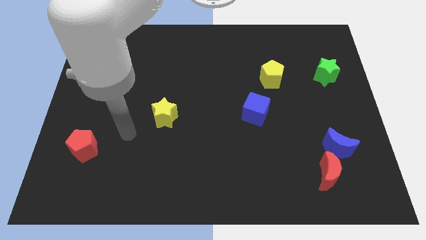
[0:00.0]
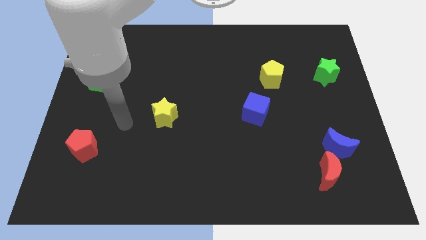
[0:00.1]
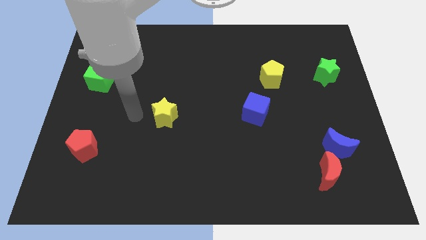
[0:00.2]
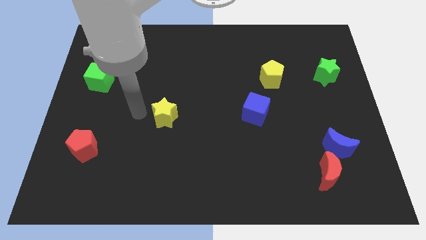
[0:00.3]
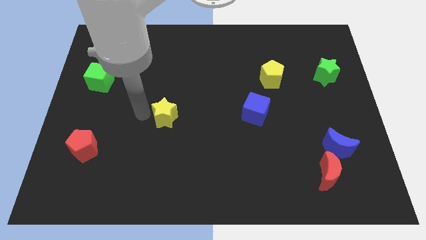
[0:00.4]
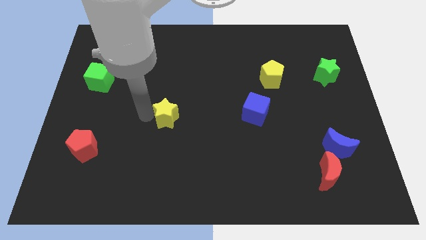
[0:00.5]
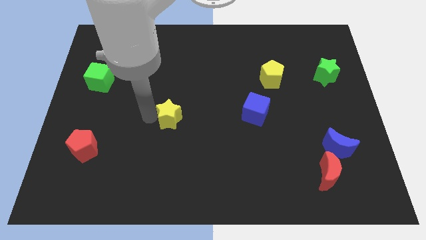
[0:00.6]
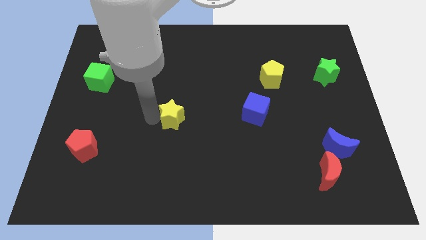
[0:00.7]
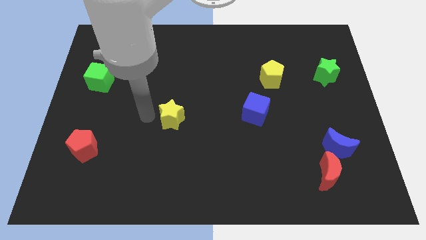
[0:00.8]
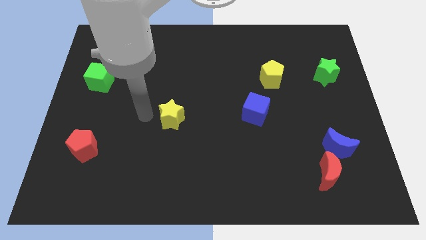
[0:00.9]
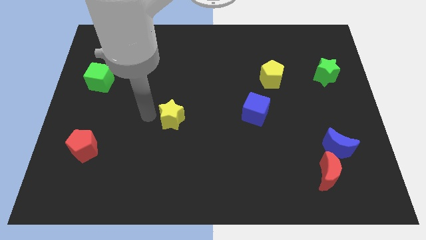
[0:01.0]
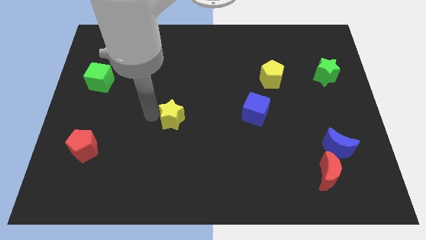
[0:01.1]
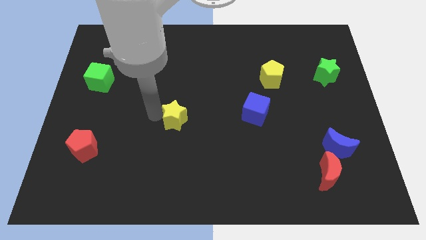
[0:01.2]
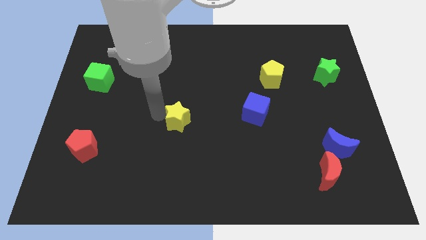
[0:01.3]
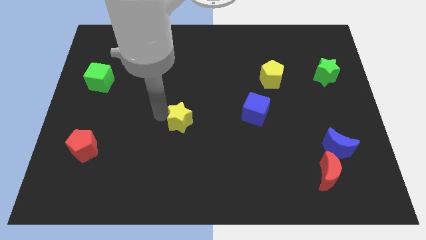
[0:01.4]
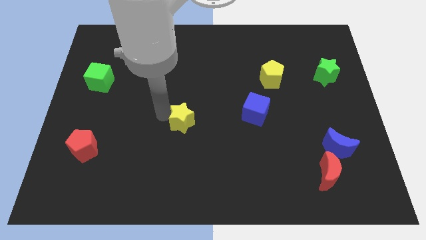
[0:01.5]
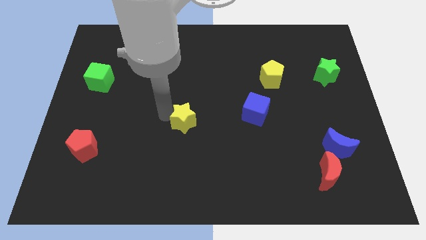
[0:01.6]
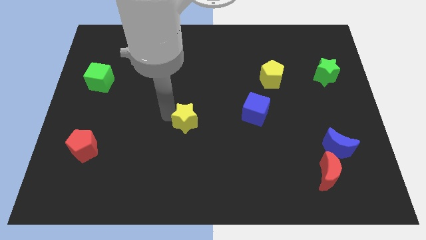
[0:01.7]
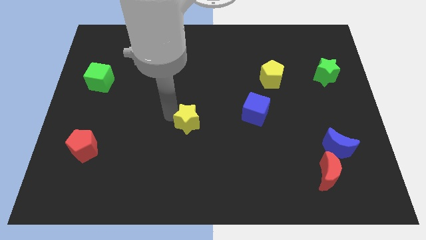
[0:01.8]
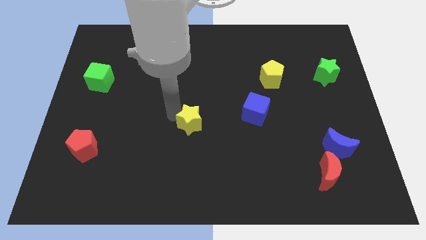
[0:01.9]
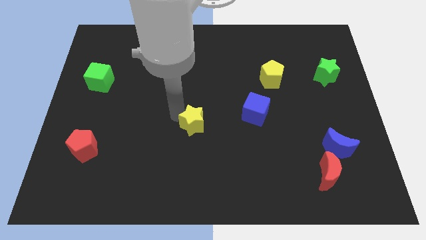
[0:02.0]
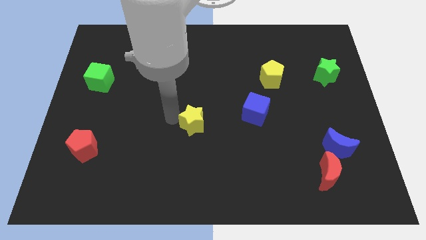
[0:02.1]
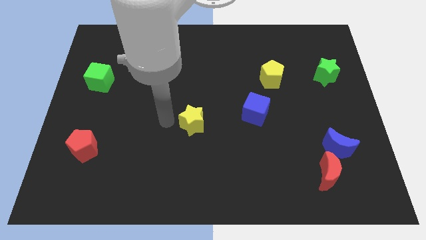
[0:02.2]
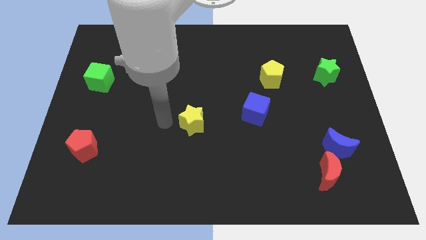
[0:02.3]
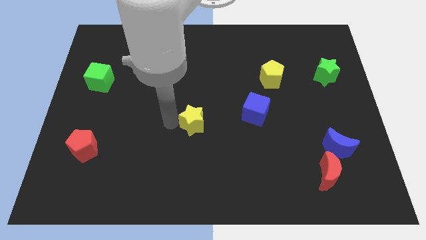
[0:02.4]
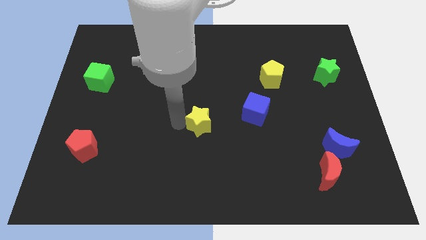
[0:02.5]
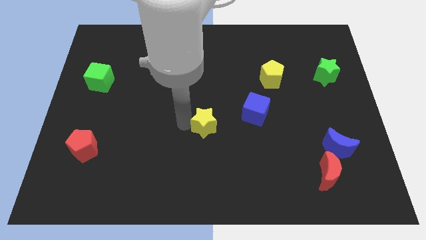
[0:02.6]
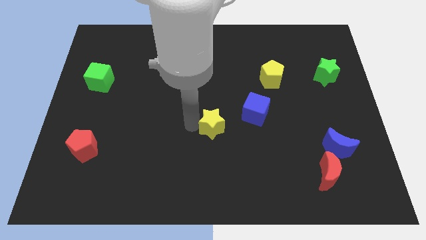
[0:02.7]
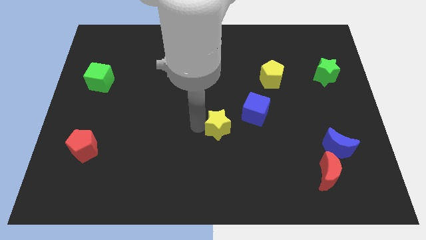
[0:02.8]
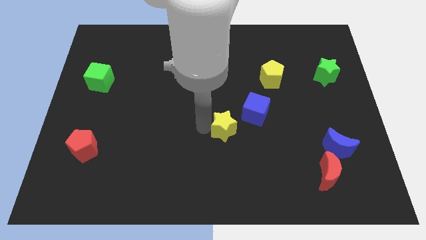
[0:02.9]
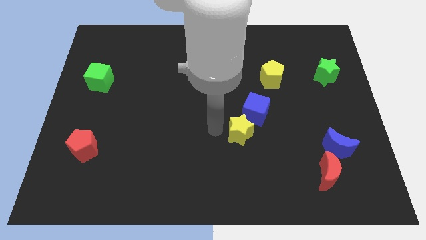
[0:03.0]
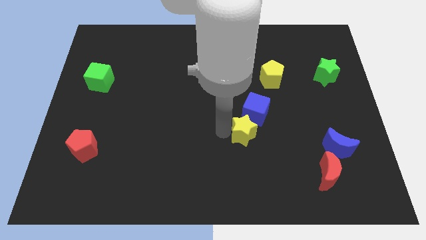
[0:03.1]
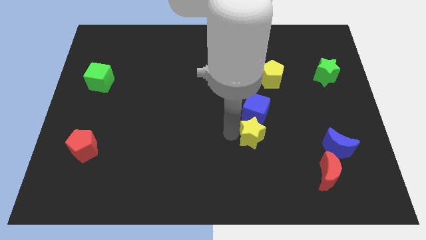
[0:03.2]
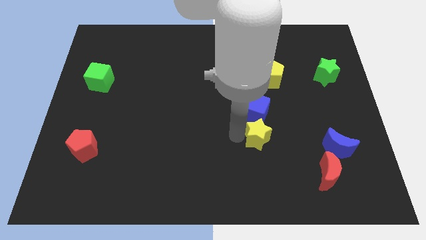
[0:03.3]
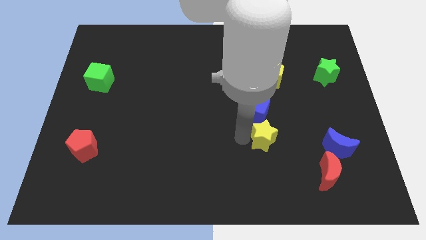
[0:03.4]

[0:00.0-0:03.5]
slide the yellow star to the right

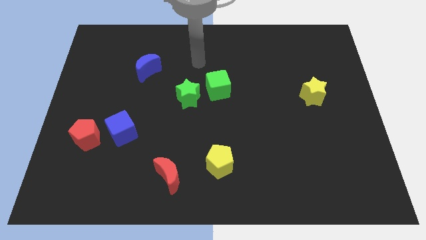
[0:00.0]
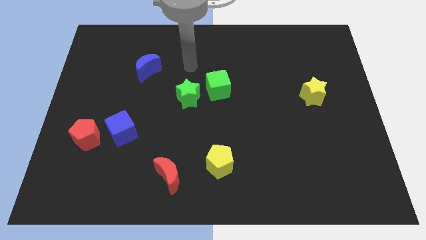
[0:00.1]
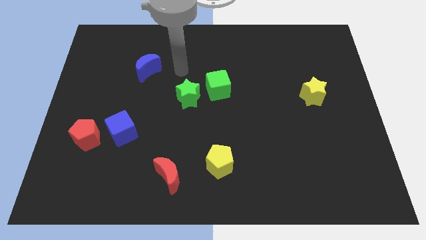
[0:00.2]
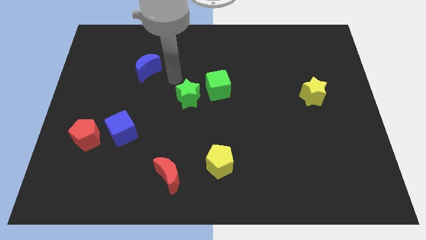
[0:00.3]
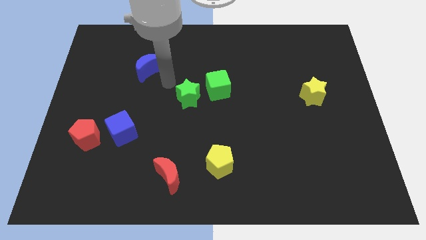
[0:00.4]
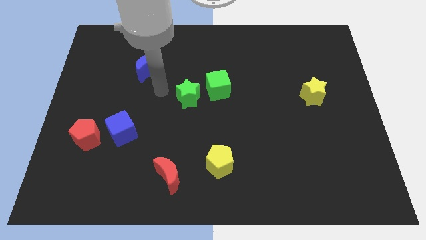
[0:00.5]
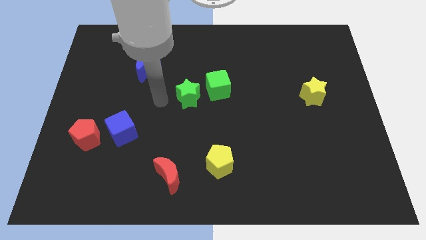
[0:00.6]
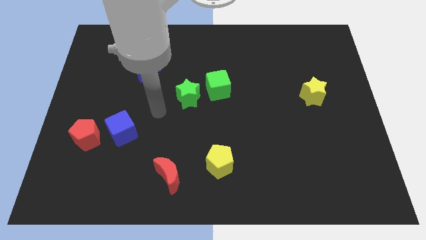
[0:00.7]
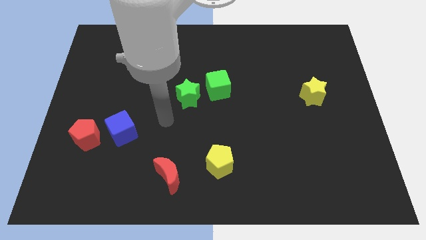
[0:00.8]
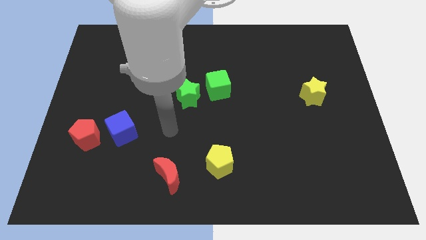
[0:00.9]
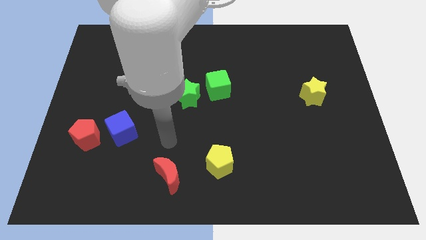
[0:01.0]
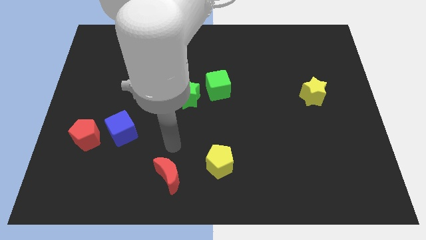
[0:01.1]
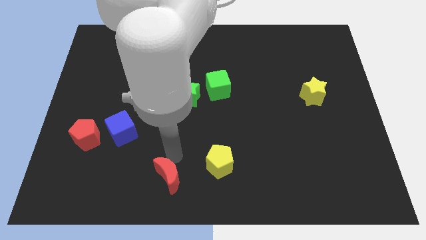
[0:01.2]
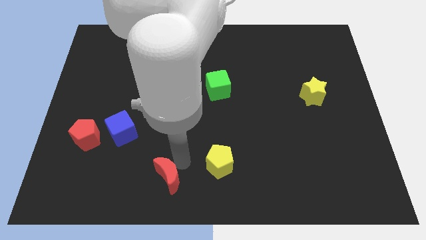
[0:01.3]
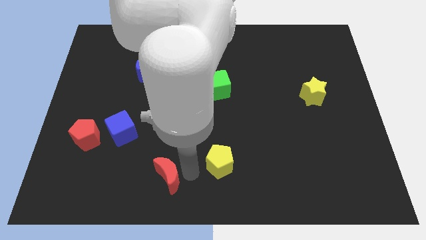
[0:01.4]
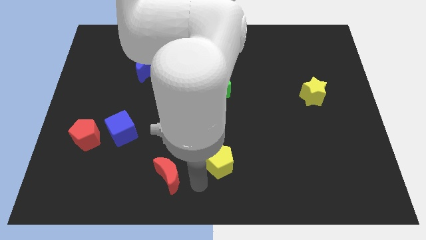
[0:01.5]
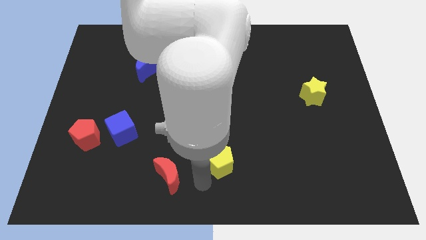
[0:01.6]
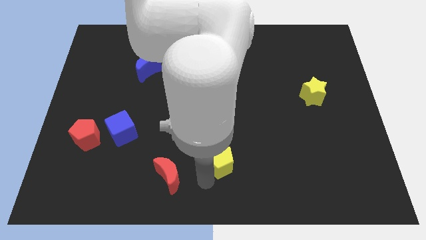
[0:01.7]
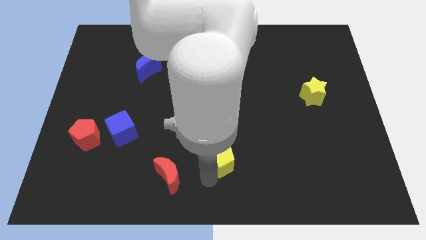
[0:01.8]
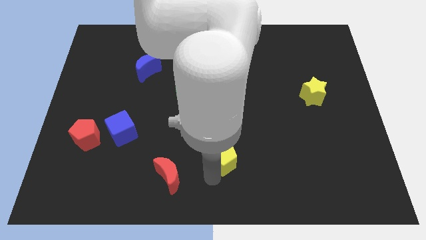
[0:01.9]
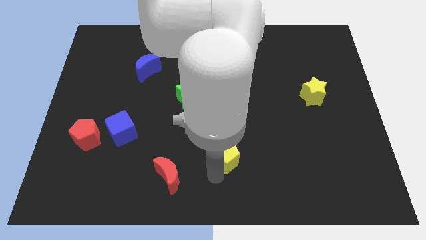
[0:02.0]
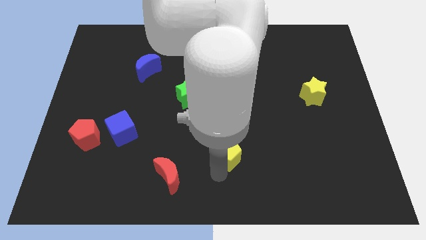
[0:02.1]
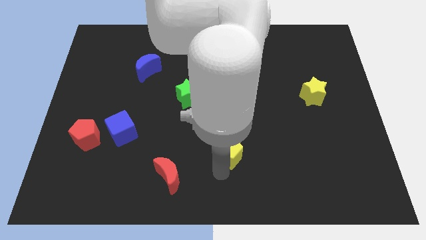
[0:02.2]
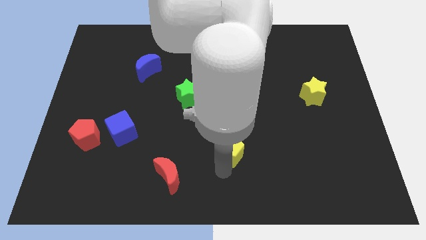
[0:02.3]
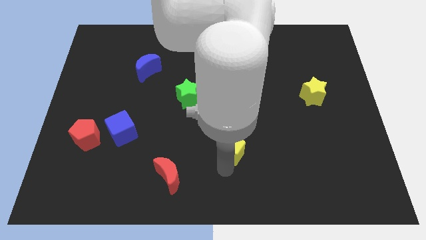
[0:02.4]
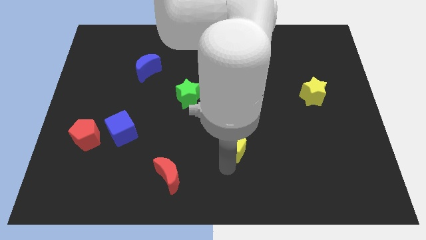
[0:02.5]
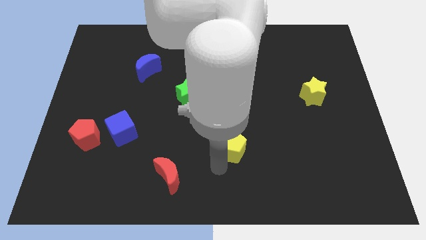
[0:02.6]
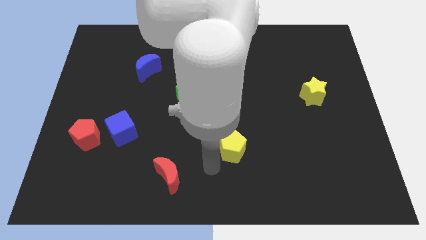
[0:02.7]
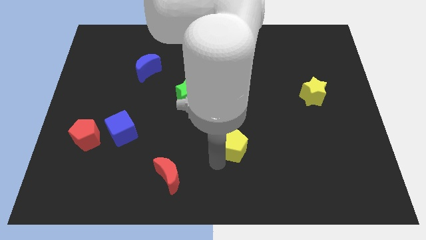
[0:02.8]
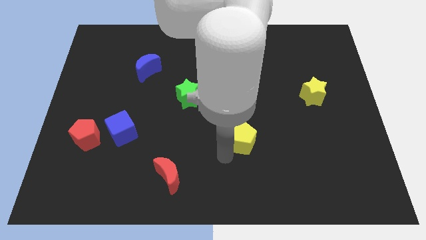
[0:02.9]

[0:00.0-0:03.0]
push the yellow pentagon up and right a bit

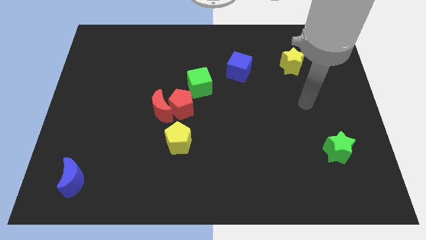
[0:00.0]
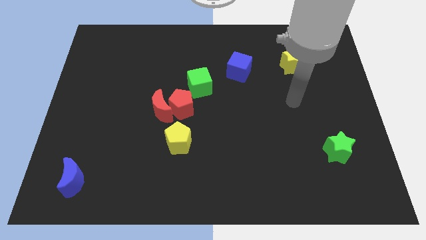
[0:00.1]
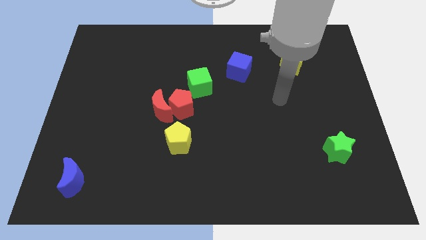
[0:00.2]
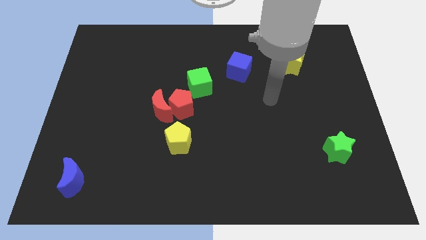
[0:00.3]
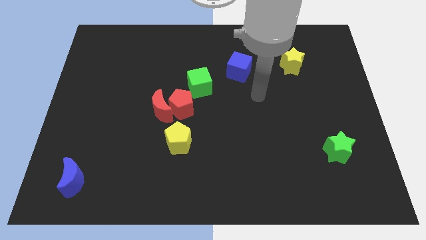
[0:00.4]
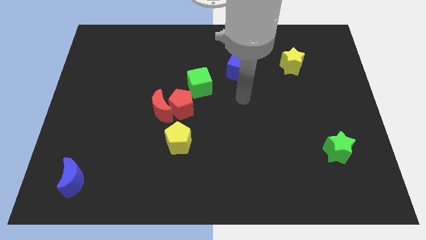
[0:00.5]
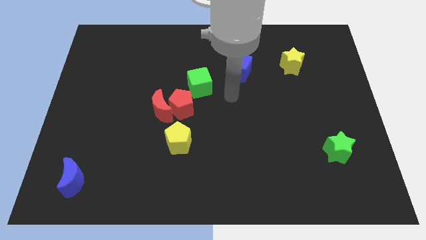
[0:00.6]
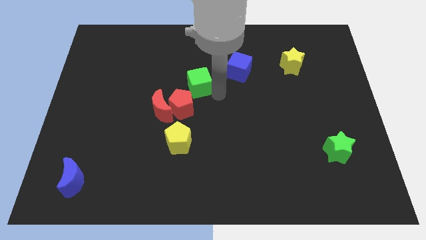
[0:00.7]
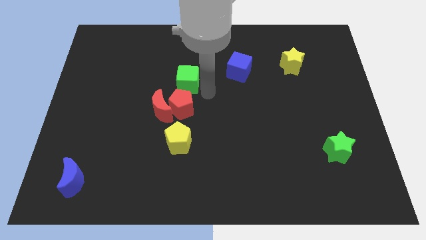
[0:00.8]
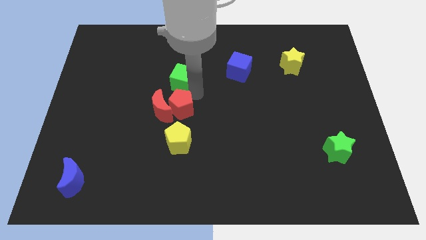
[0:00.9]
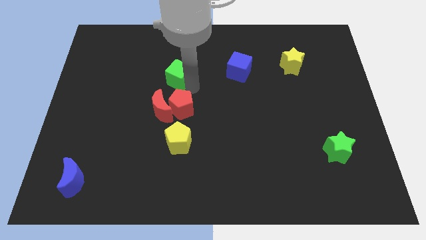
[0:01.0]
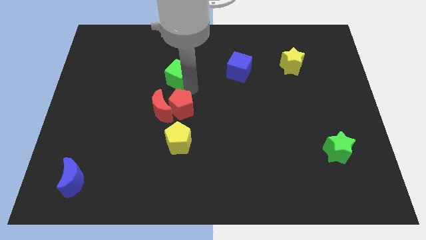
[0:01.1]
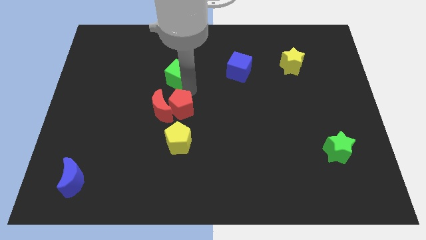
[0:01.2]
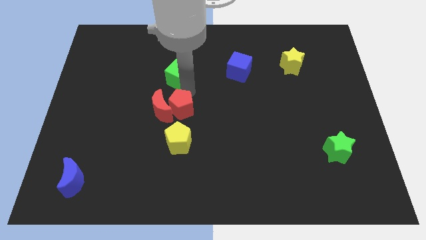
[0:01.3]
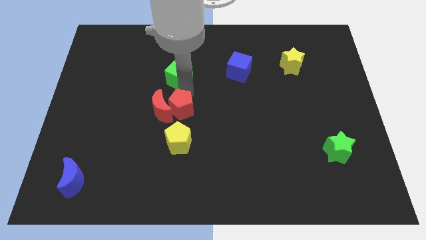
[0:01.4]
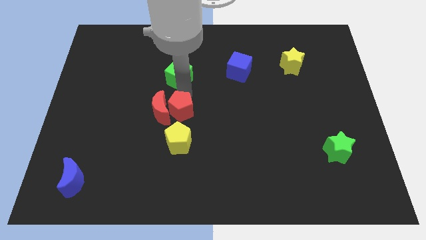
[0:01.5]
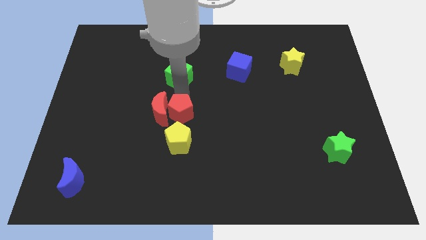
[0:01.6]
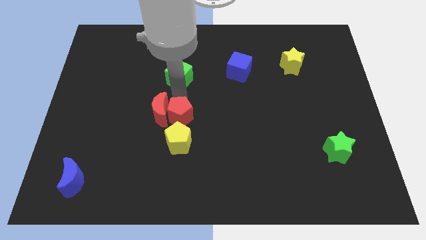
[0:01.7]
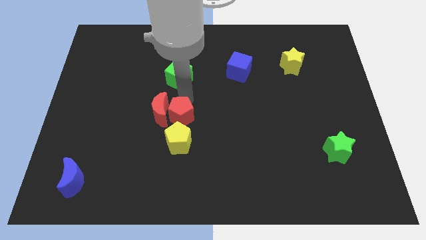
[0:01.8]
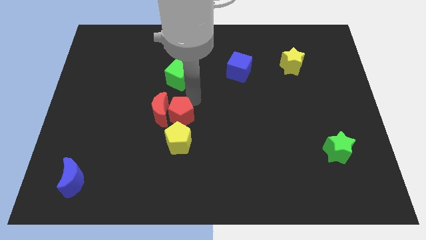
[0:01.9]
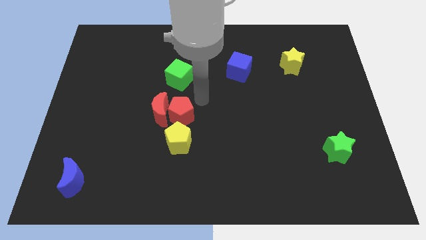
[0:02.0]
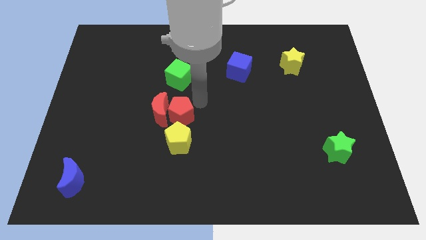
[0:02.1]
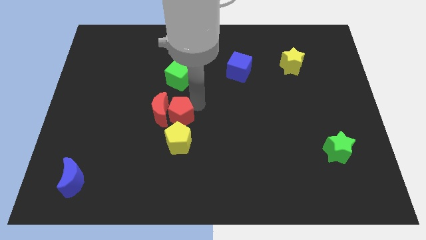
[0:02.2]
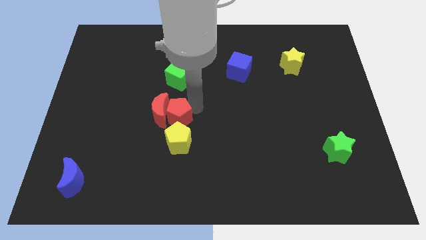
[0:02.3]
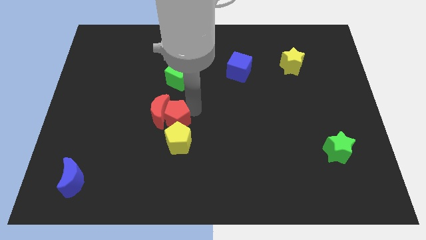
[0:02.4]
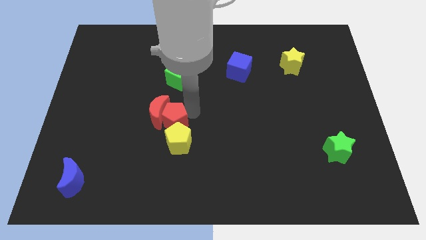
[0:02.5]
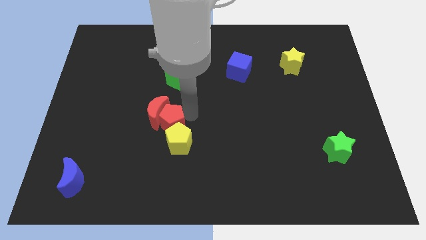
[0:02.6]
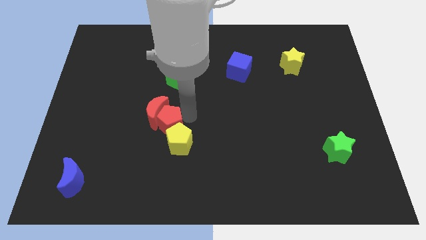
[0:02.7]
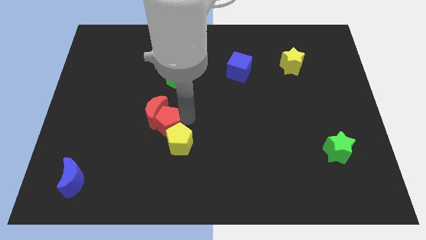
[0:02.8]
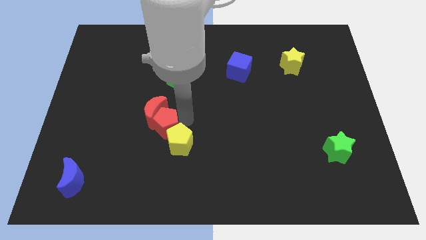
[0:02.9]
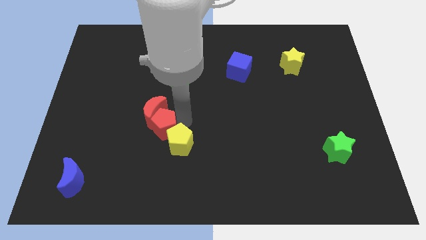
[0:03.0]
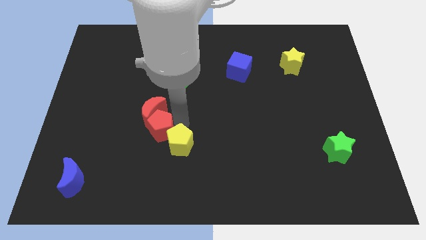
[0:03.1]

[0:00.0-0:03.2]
move the red pentagon down and then left somewhat
